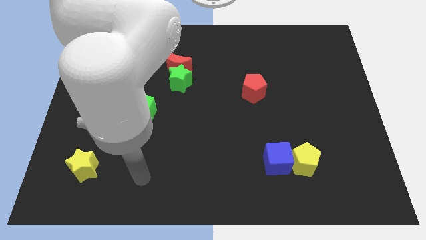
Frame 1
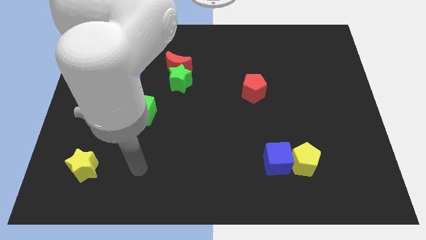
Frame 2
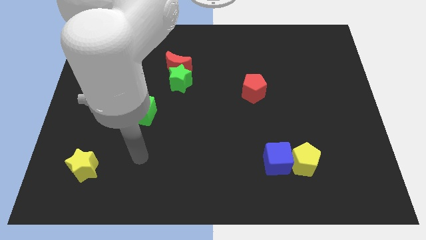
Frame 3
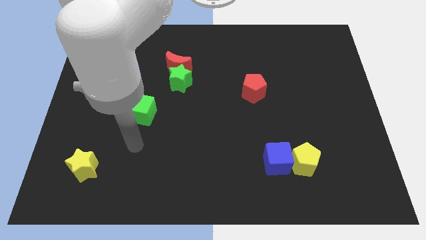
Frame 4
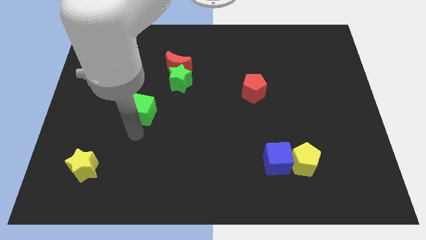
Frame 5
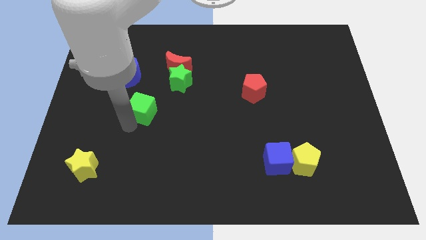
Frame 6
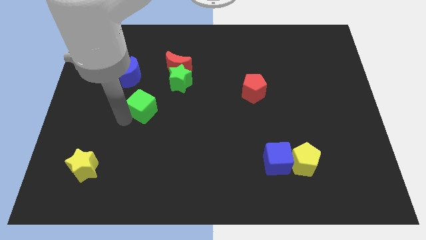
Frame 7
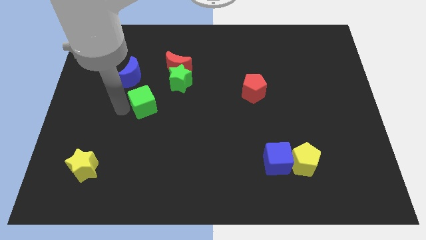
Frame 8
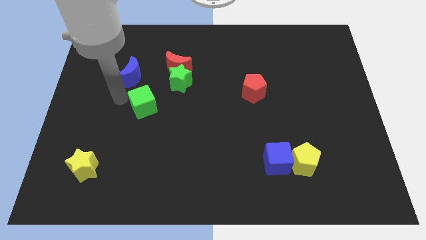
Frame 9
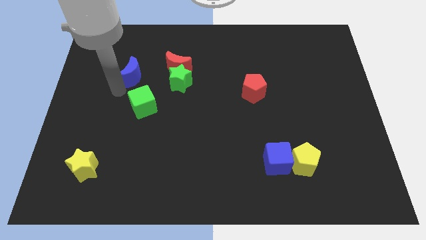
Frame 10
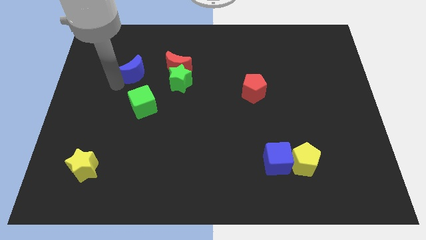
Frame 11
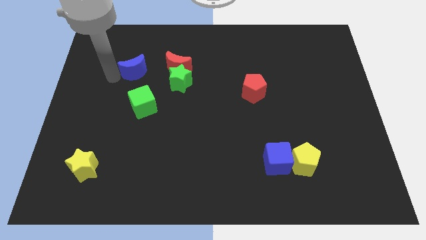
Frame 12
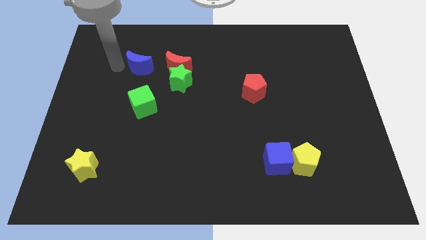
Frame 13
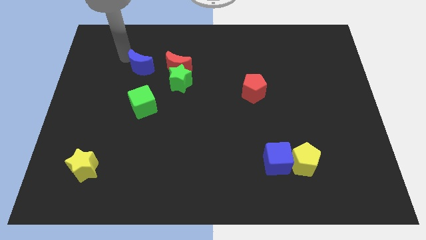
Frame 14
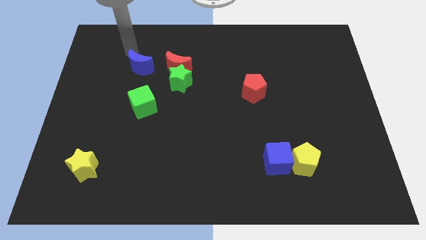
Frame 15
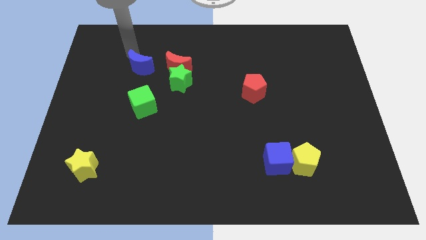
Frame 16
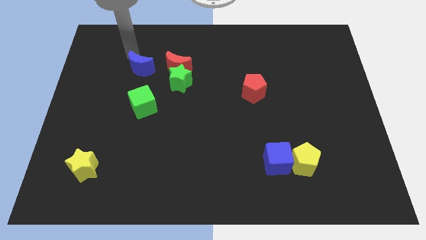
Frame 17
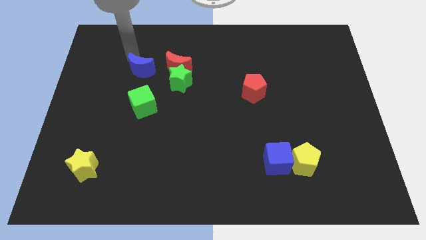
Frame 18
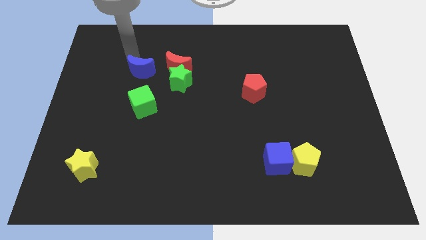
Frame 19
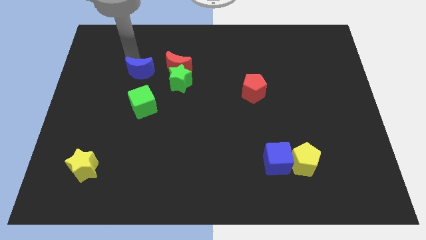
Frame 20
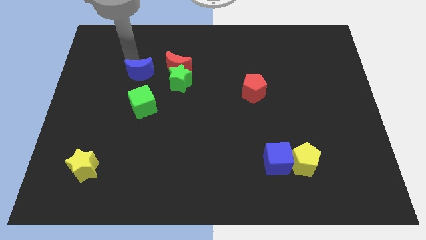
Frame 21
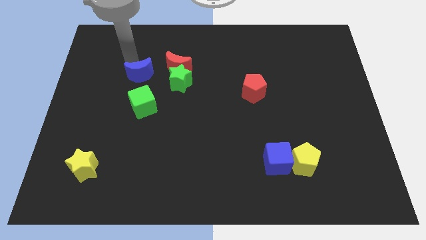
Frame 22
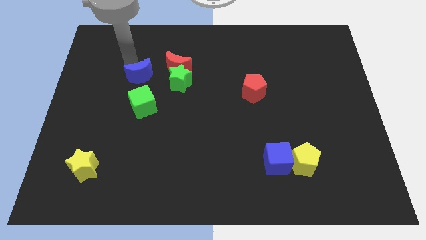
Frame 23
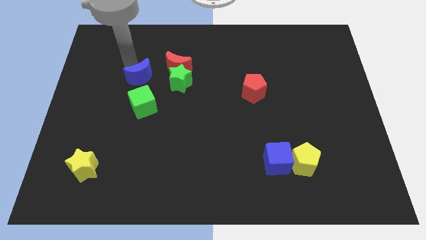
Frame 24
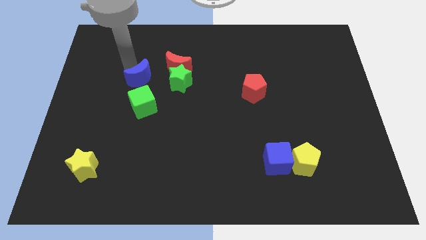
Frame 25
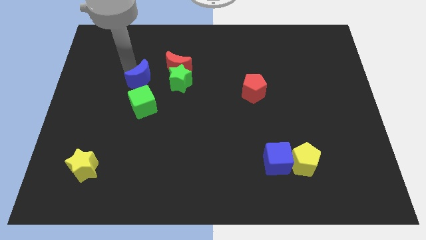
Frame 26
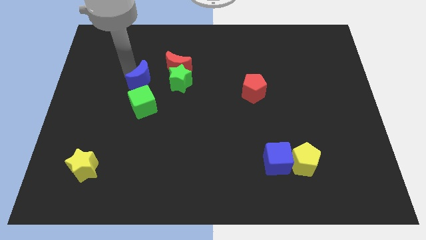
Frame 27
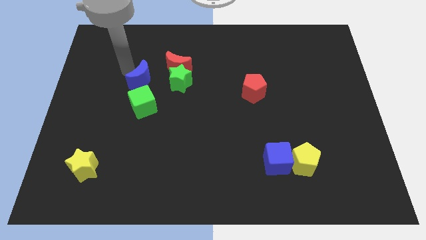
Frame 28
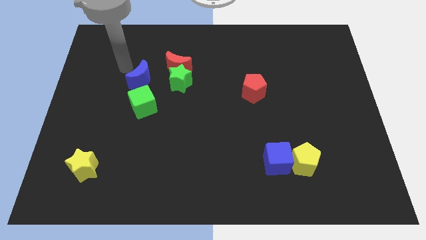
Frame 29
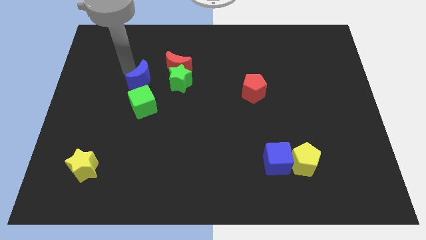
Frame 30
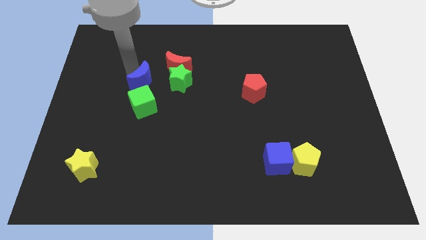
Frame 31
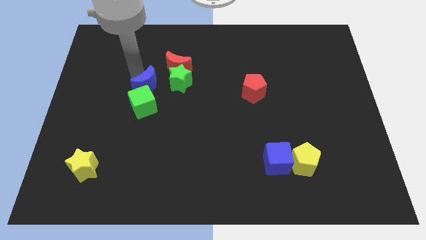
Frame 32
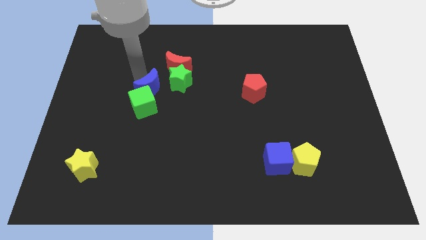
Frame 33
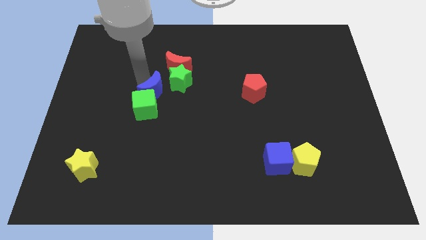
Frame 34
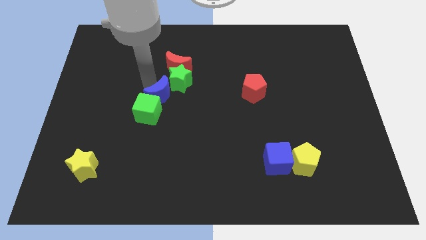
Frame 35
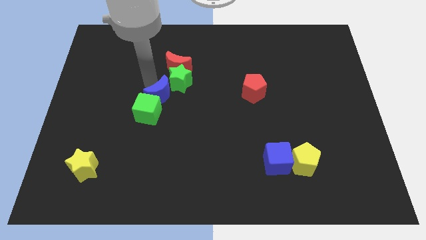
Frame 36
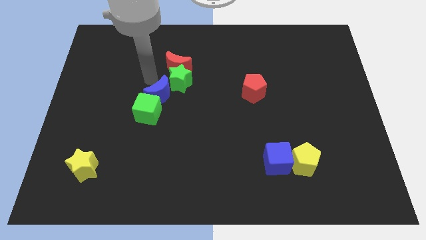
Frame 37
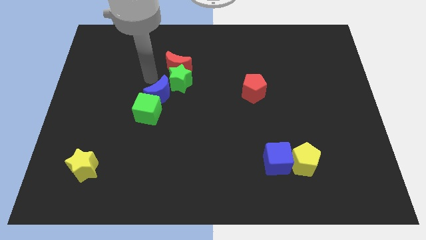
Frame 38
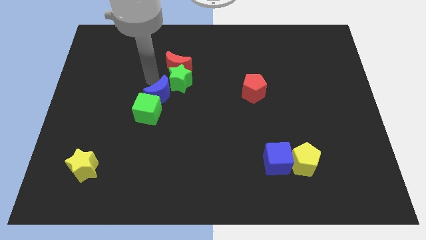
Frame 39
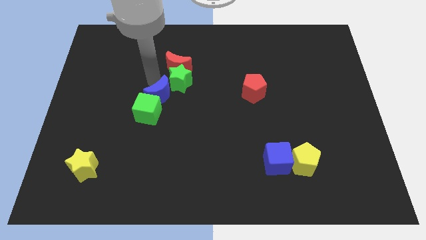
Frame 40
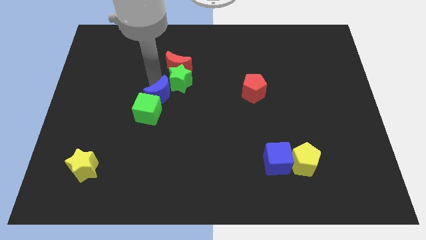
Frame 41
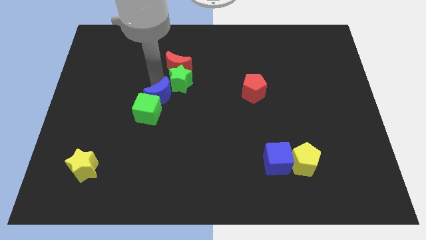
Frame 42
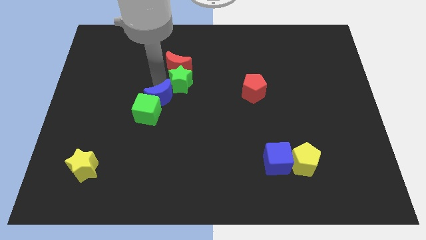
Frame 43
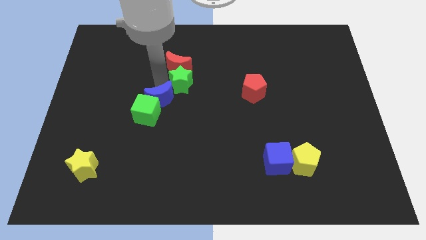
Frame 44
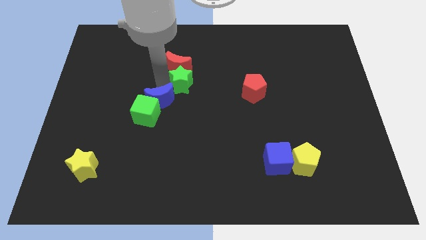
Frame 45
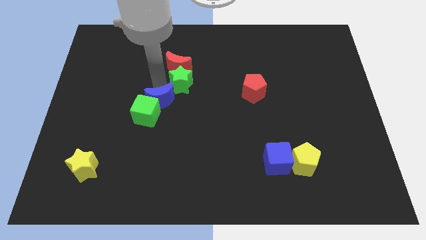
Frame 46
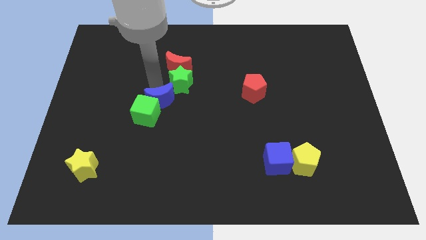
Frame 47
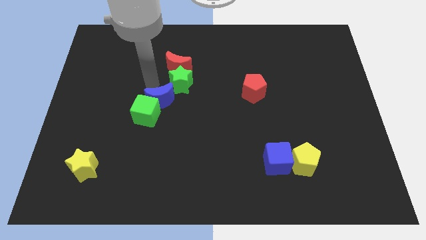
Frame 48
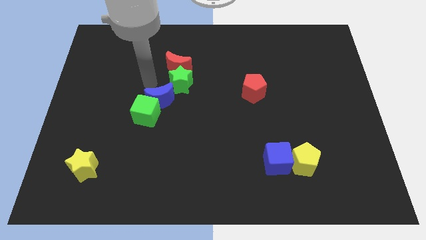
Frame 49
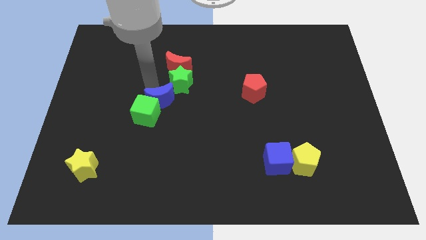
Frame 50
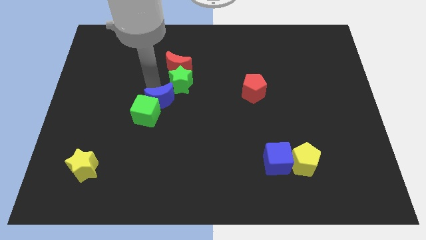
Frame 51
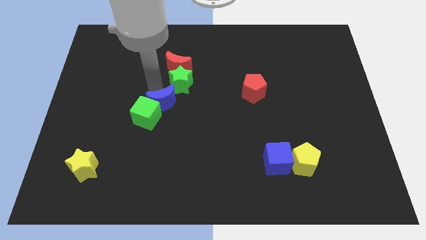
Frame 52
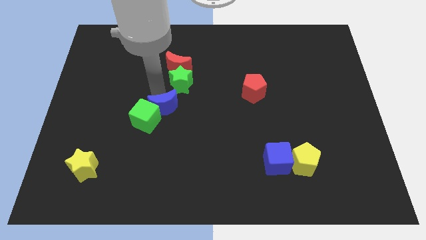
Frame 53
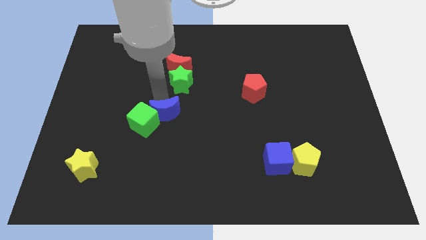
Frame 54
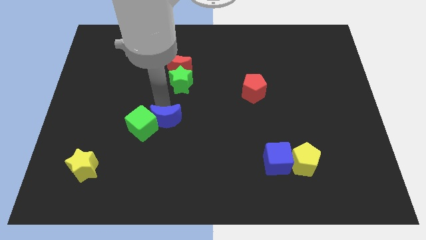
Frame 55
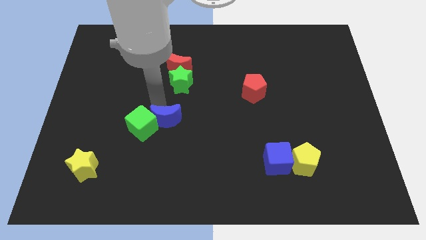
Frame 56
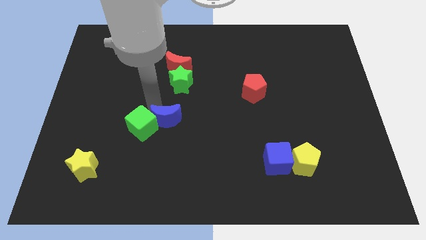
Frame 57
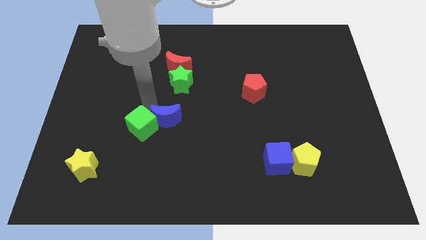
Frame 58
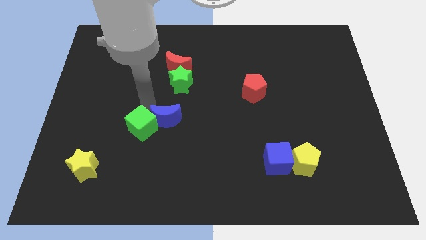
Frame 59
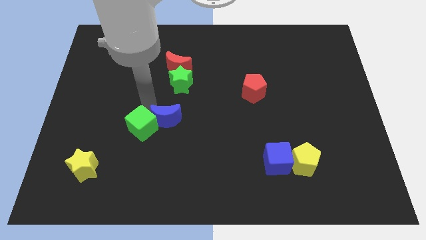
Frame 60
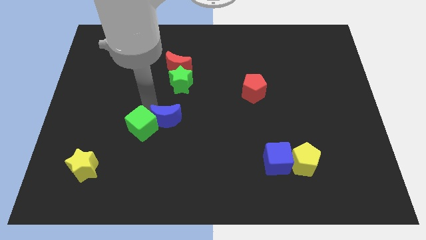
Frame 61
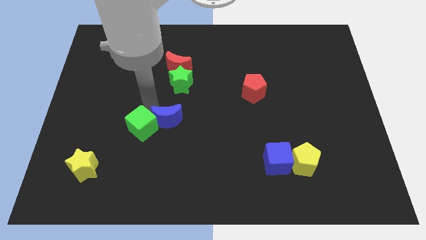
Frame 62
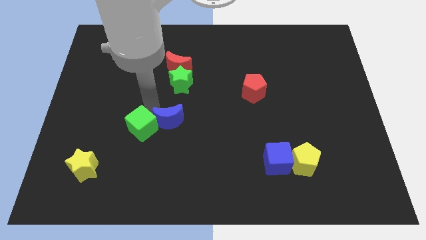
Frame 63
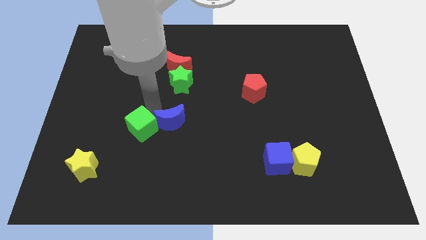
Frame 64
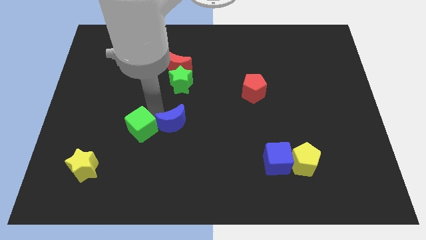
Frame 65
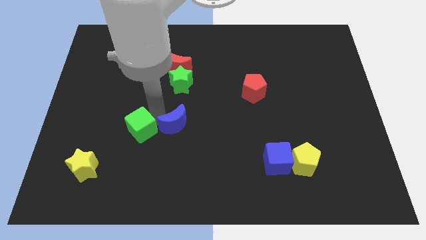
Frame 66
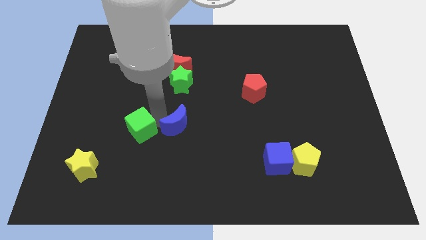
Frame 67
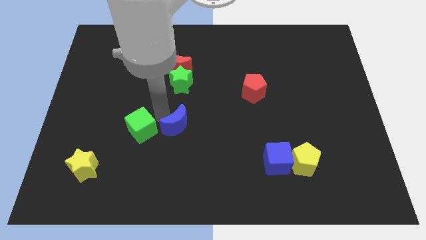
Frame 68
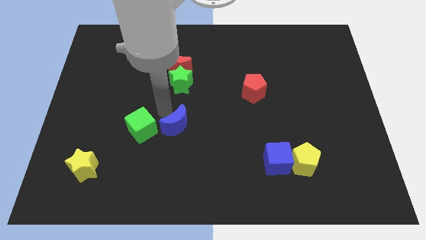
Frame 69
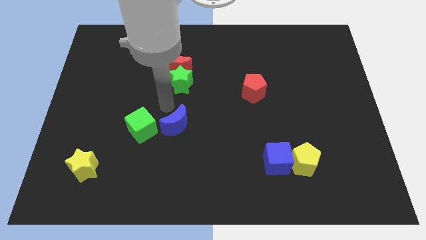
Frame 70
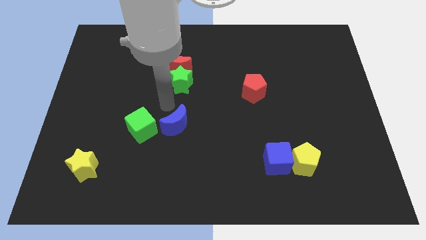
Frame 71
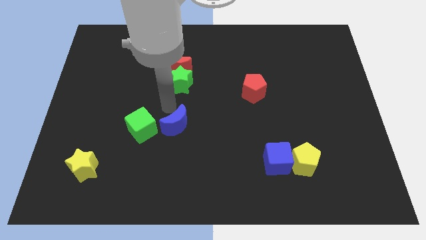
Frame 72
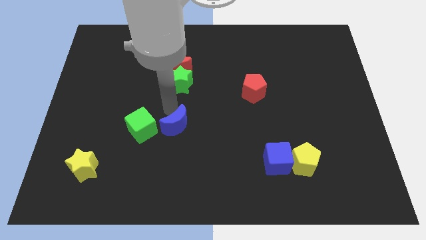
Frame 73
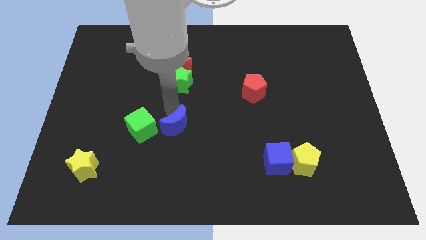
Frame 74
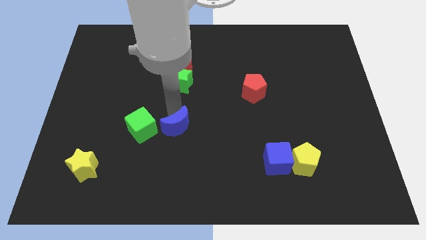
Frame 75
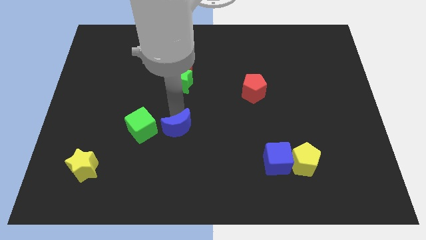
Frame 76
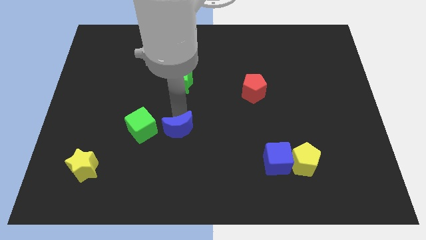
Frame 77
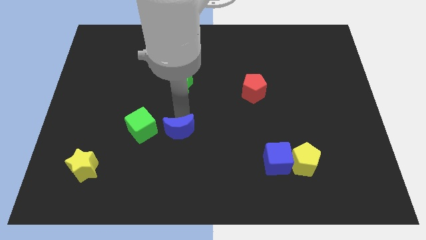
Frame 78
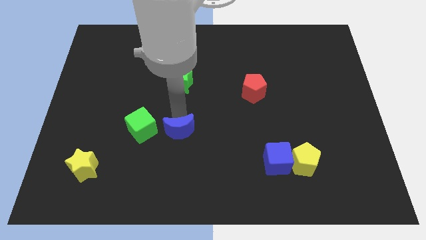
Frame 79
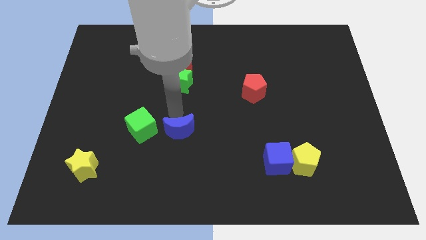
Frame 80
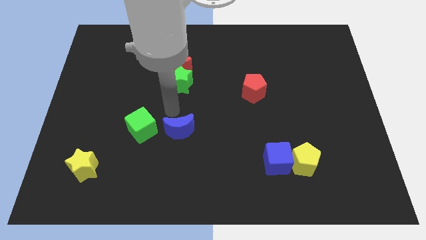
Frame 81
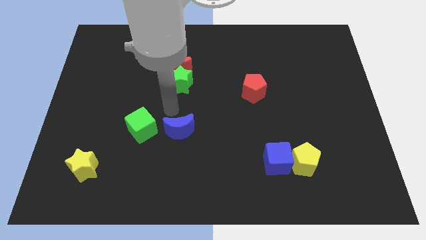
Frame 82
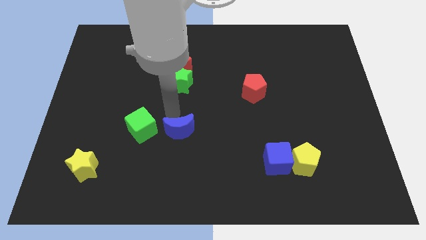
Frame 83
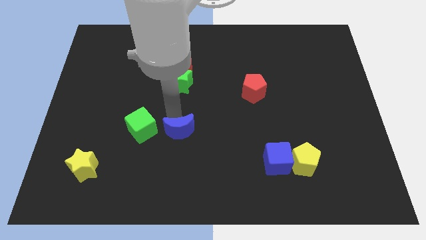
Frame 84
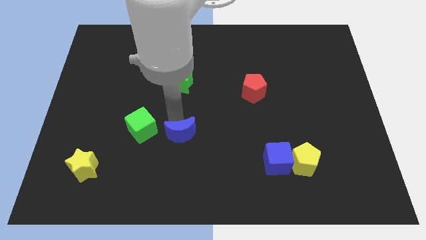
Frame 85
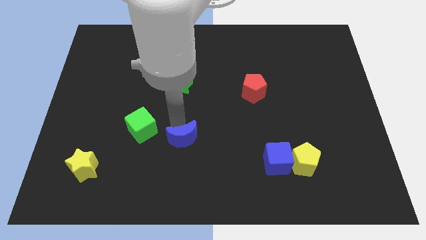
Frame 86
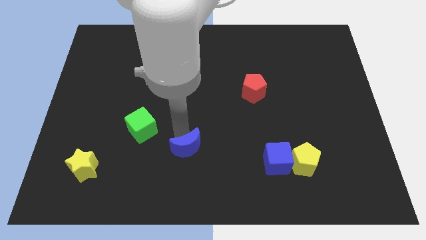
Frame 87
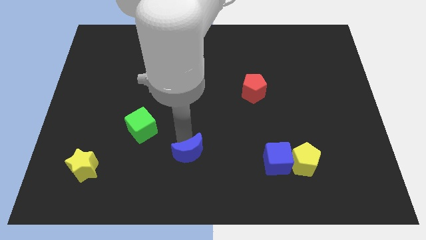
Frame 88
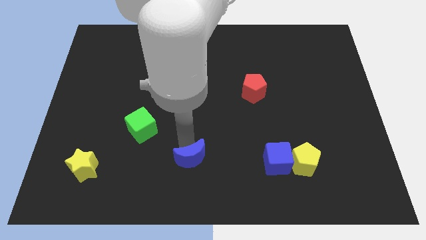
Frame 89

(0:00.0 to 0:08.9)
slide the blue moon to the bottom side
